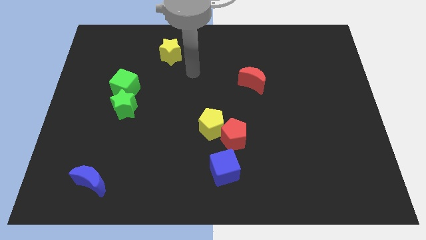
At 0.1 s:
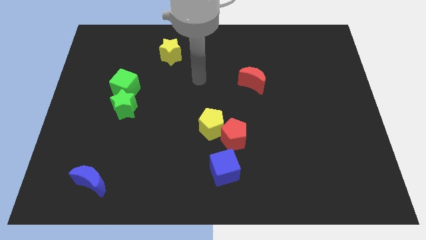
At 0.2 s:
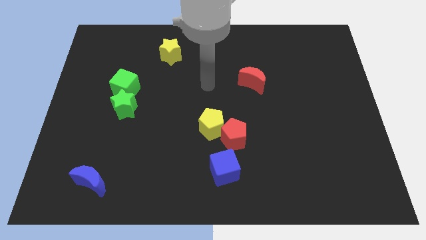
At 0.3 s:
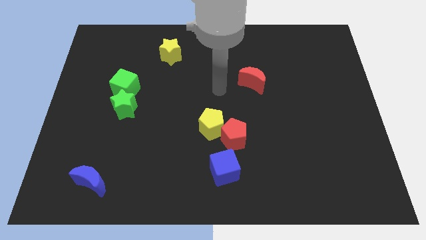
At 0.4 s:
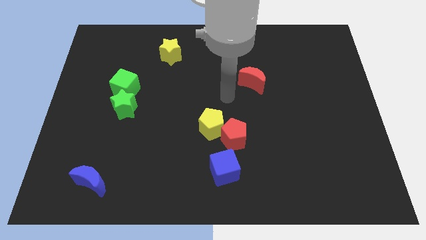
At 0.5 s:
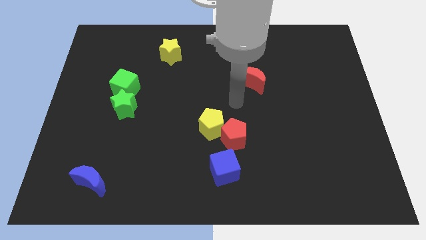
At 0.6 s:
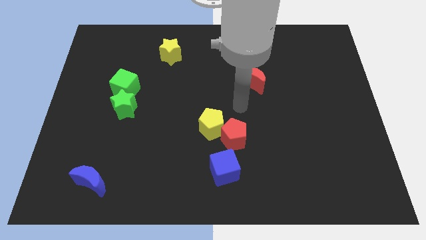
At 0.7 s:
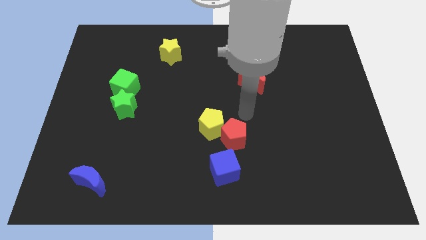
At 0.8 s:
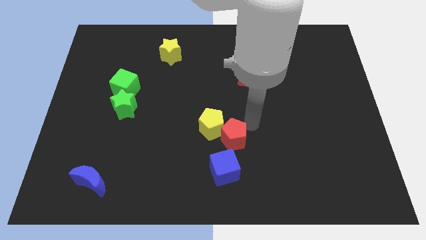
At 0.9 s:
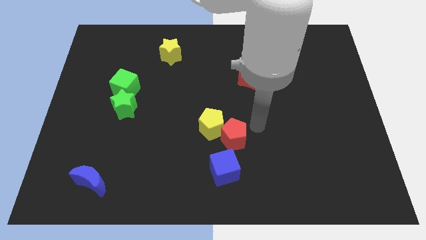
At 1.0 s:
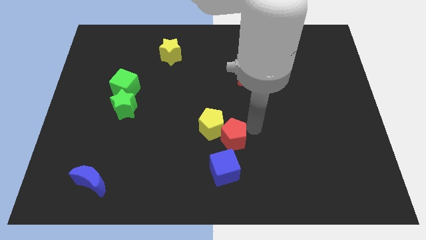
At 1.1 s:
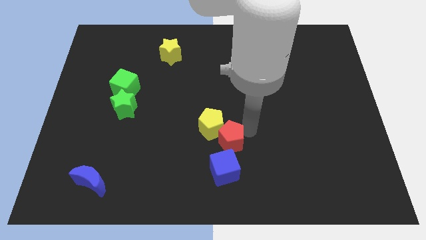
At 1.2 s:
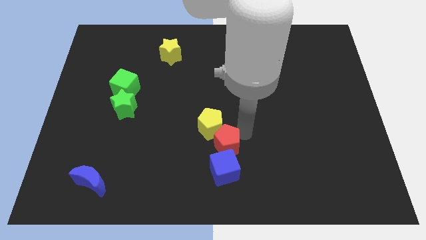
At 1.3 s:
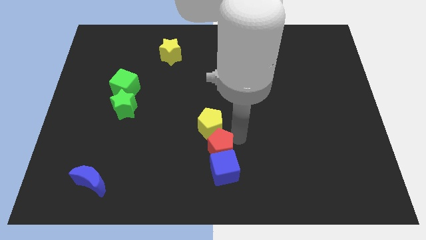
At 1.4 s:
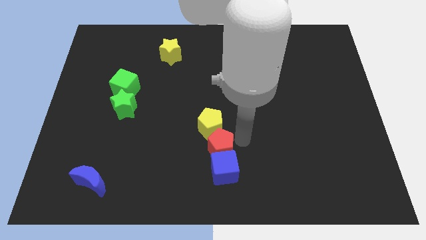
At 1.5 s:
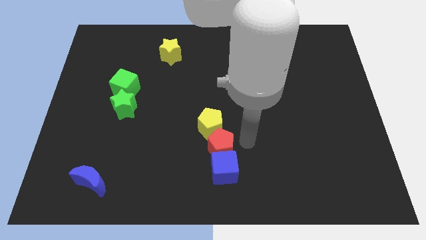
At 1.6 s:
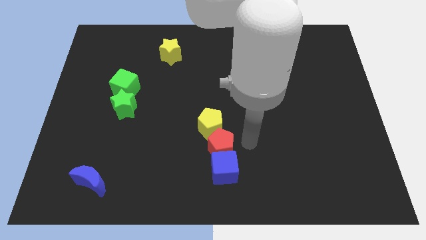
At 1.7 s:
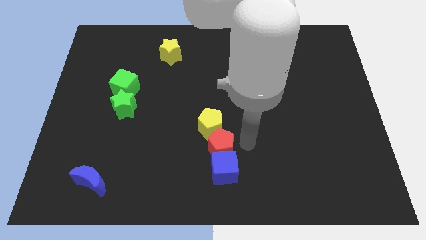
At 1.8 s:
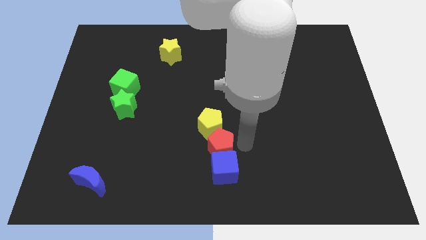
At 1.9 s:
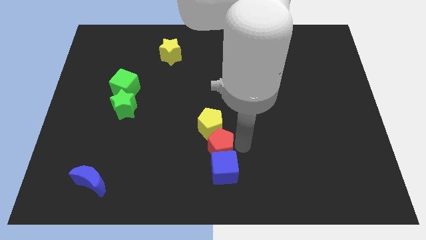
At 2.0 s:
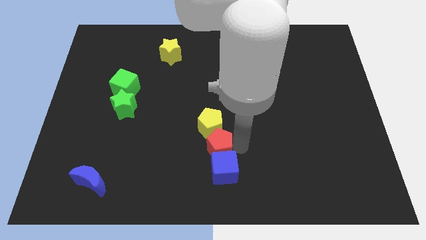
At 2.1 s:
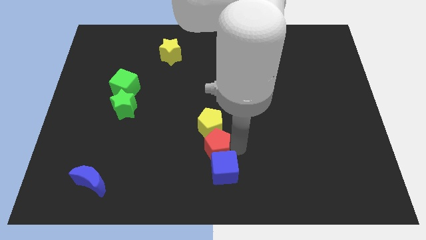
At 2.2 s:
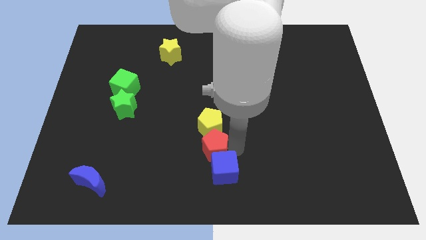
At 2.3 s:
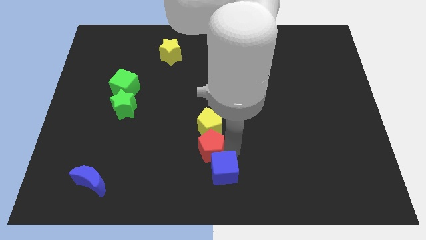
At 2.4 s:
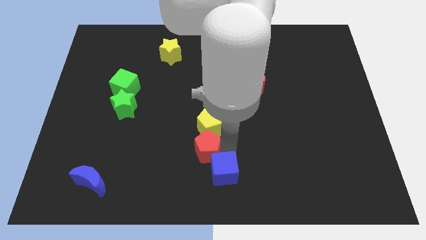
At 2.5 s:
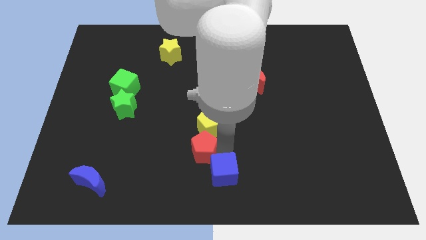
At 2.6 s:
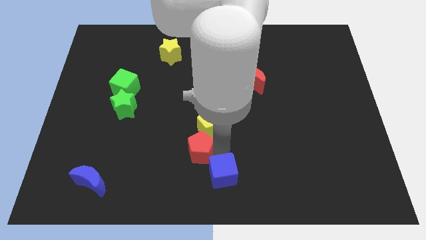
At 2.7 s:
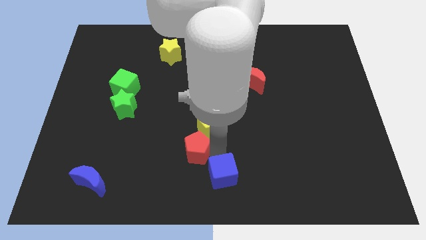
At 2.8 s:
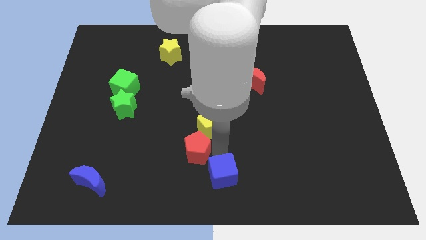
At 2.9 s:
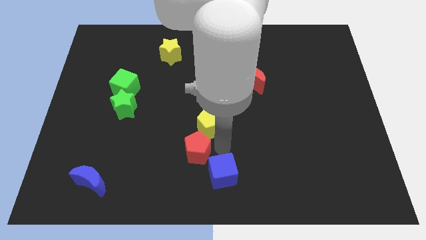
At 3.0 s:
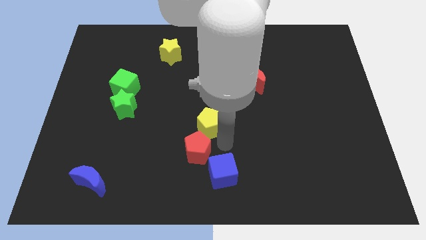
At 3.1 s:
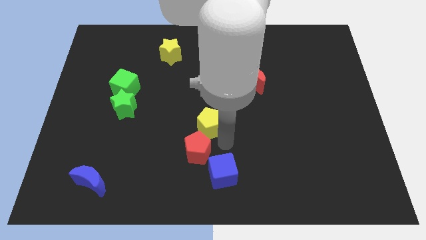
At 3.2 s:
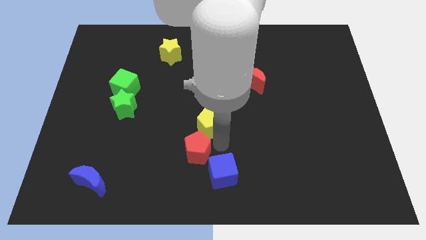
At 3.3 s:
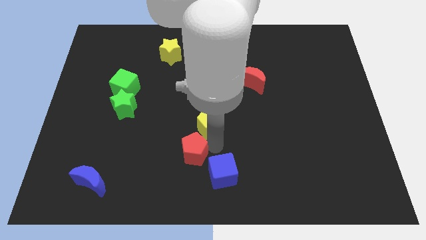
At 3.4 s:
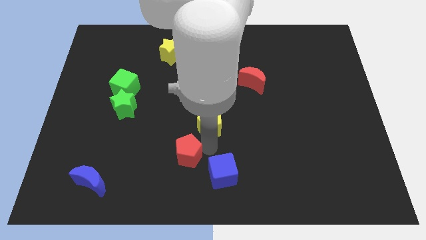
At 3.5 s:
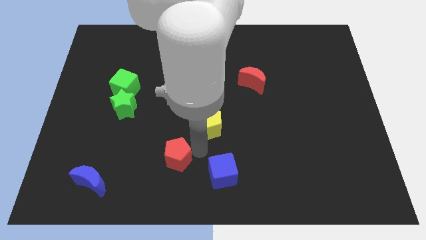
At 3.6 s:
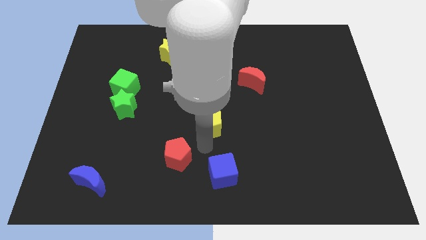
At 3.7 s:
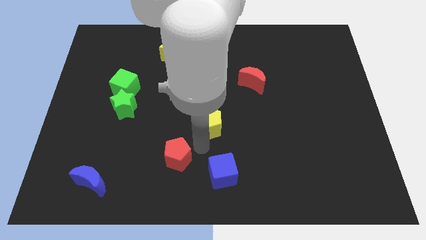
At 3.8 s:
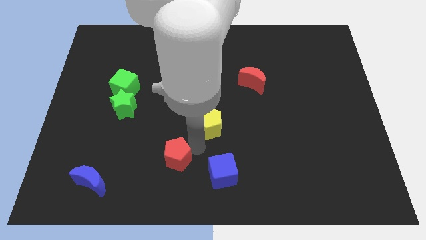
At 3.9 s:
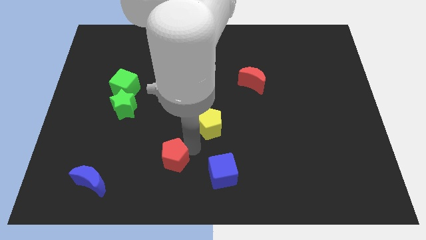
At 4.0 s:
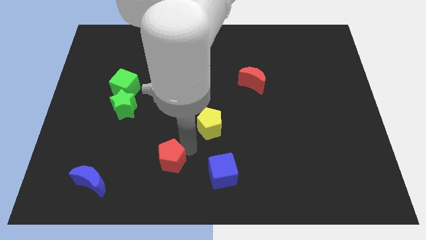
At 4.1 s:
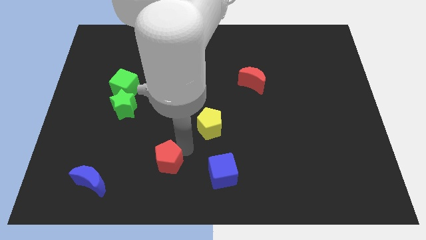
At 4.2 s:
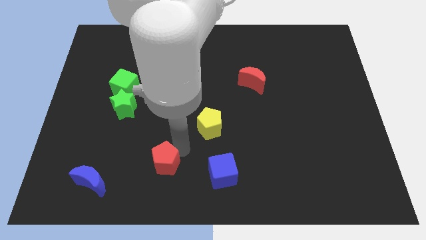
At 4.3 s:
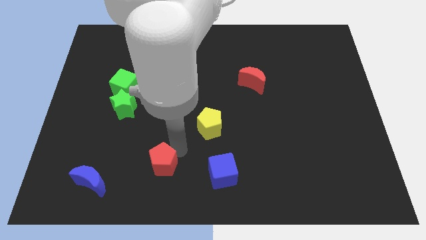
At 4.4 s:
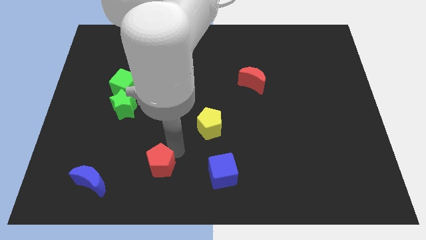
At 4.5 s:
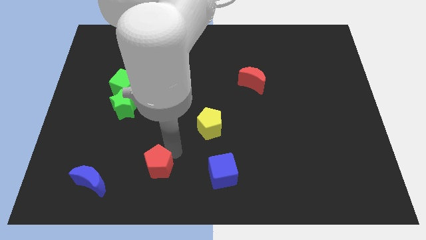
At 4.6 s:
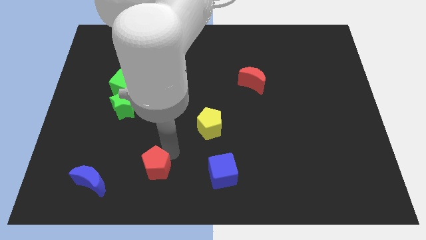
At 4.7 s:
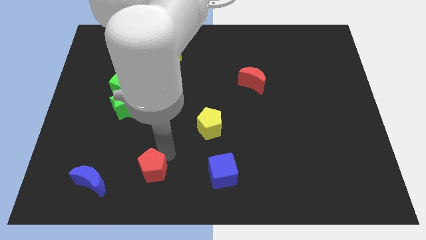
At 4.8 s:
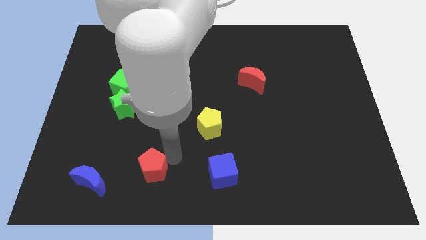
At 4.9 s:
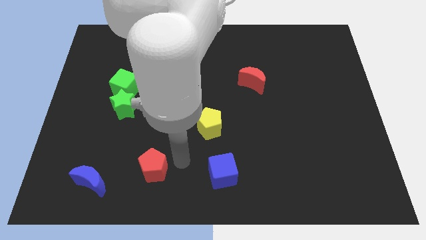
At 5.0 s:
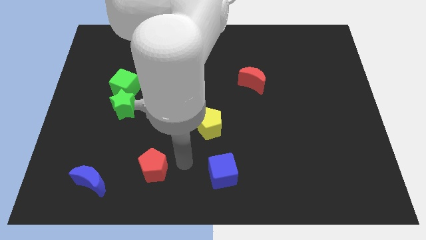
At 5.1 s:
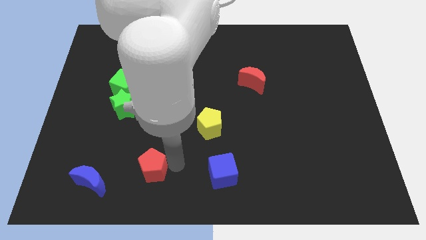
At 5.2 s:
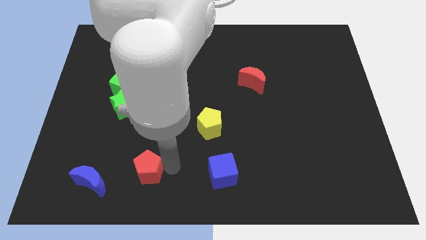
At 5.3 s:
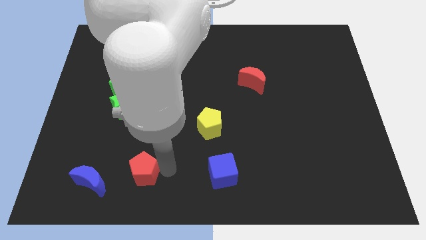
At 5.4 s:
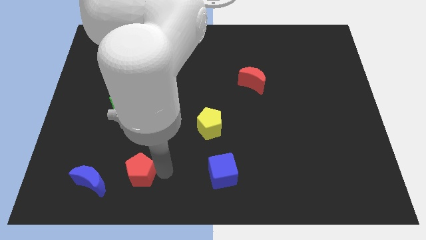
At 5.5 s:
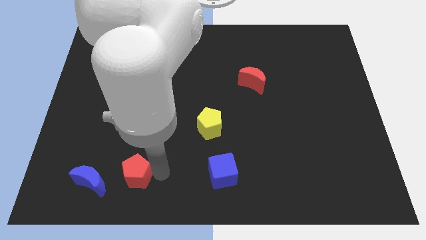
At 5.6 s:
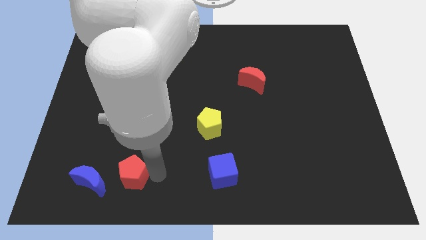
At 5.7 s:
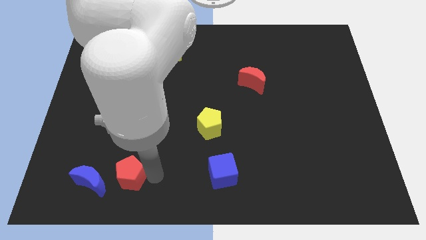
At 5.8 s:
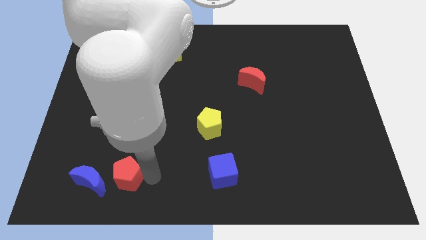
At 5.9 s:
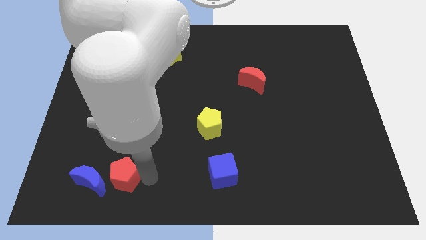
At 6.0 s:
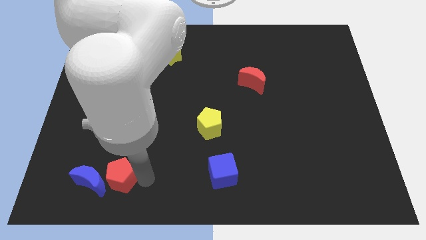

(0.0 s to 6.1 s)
push the red pentagon to the blue moon
